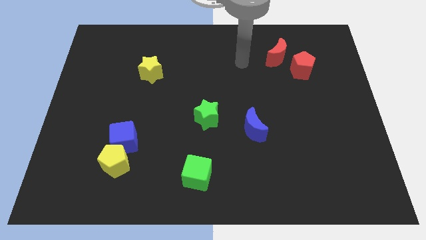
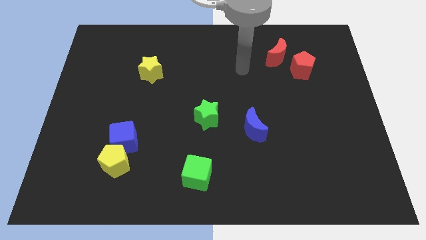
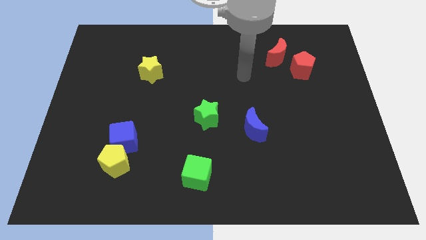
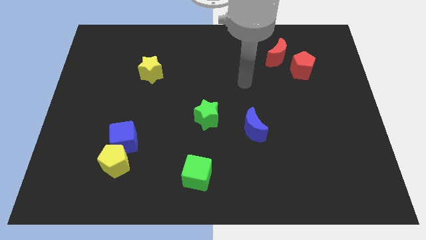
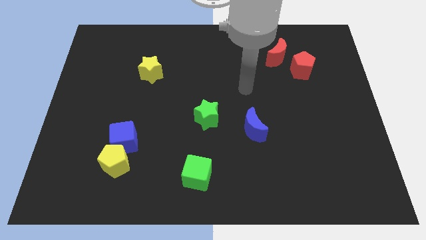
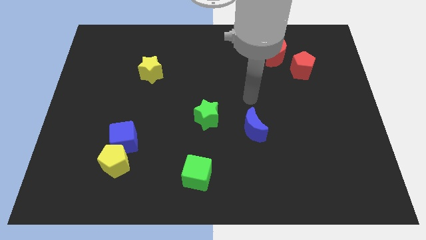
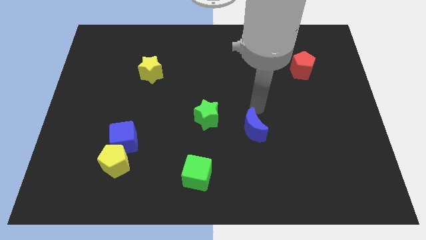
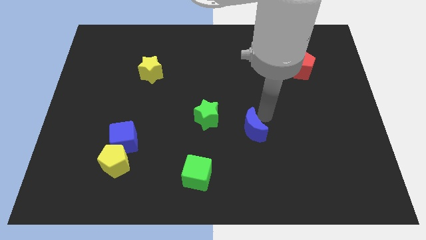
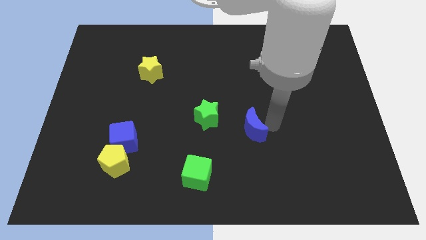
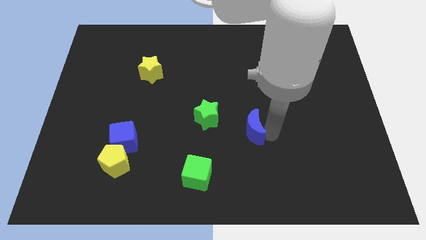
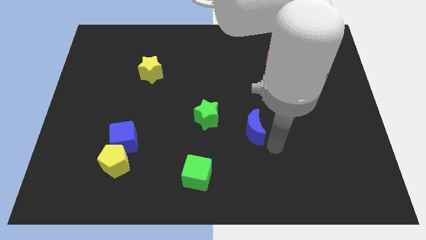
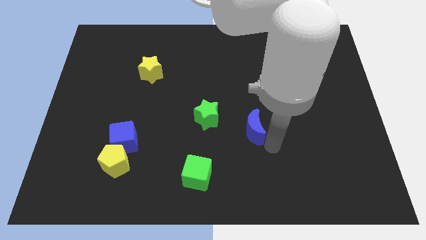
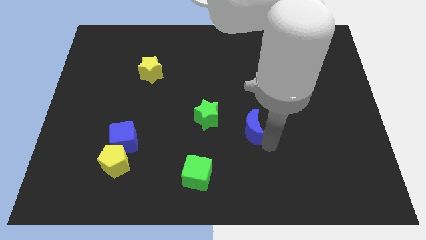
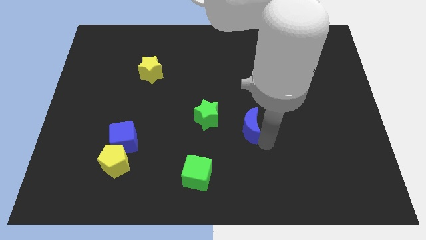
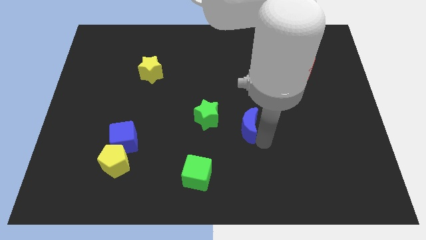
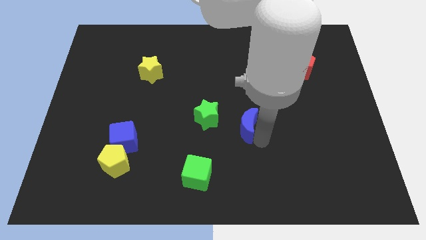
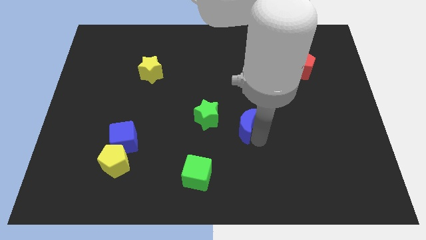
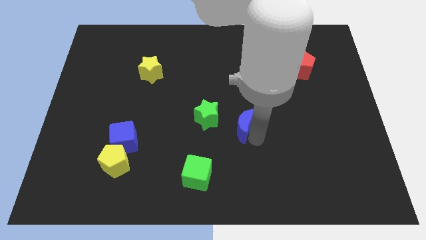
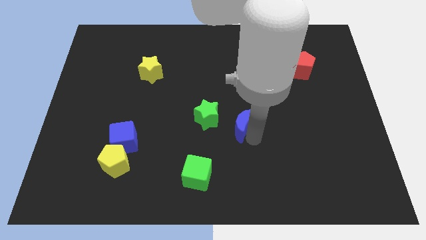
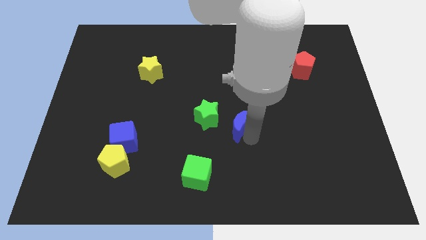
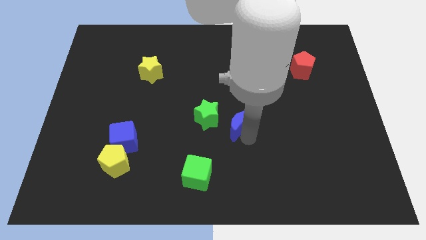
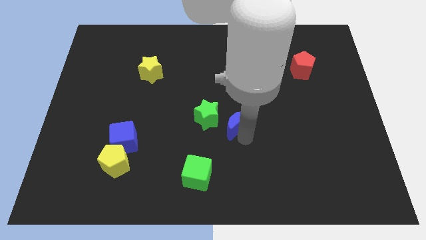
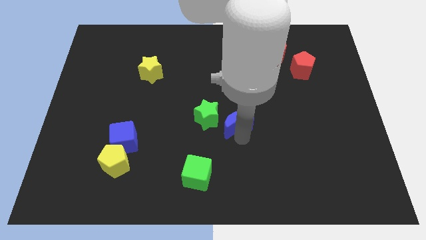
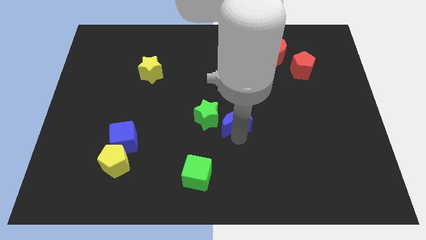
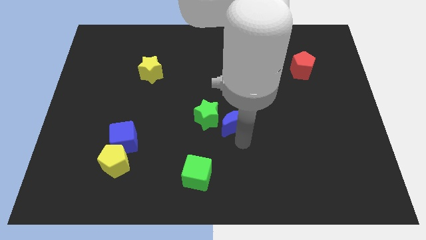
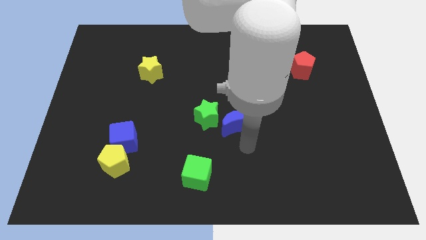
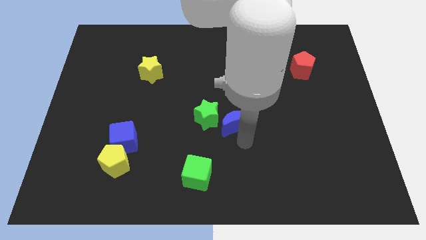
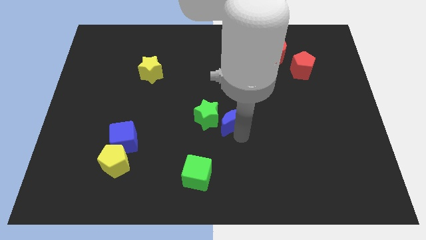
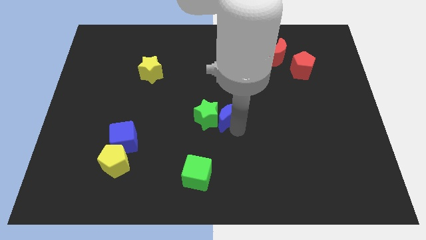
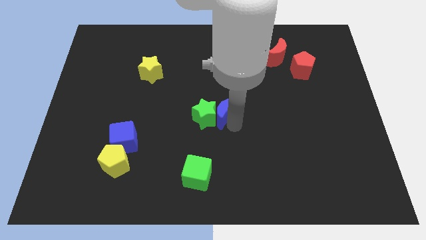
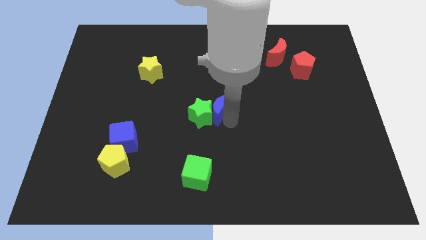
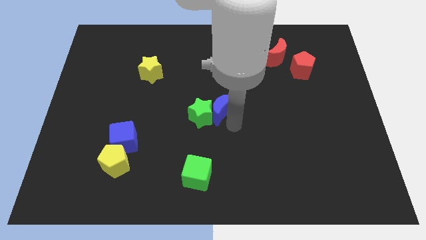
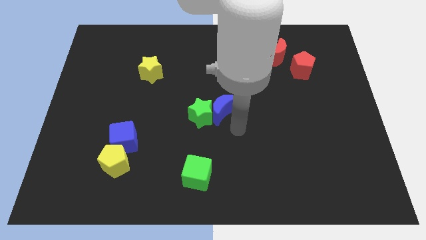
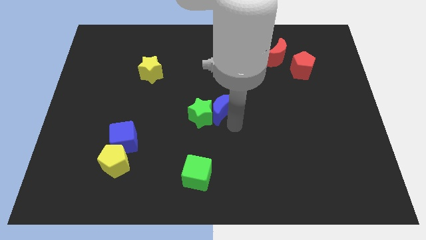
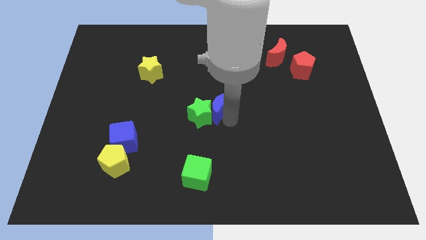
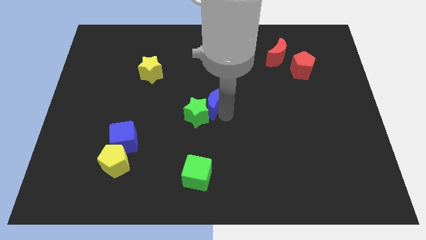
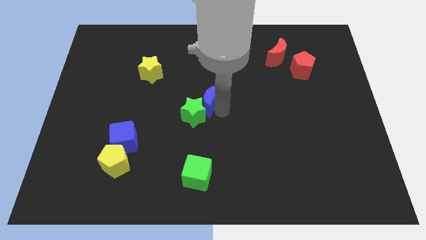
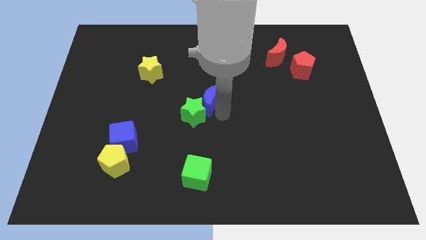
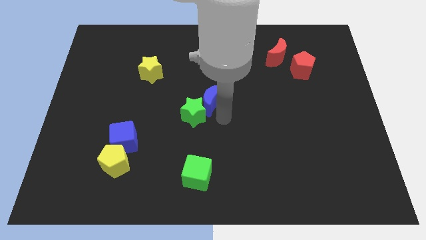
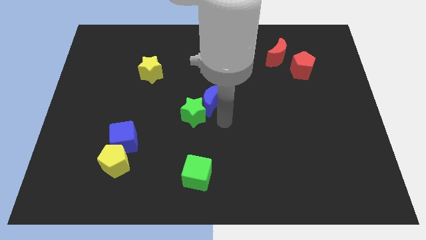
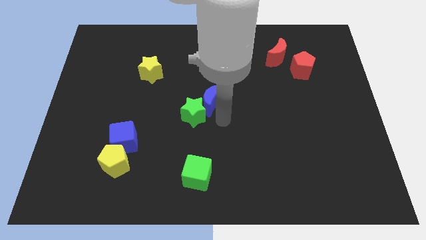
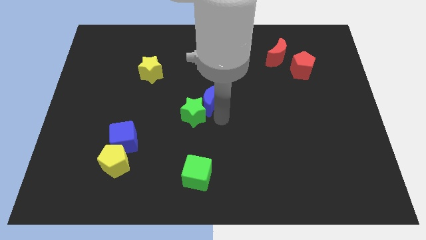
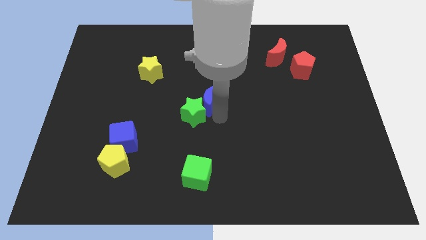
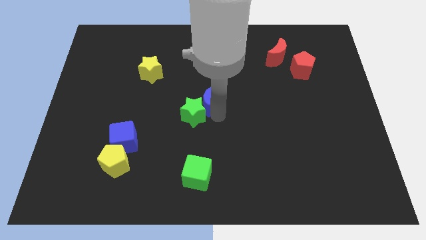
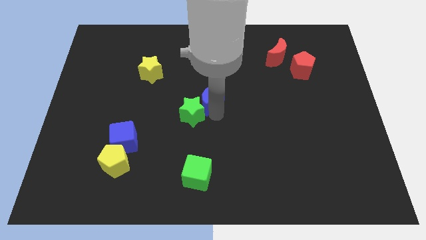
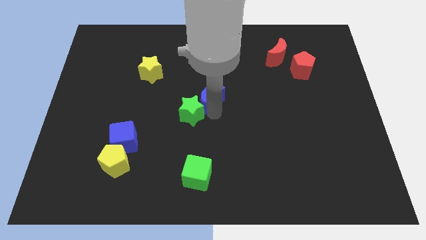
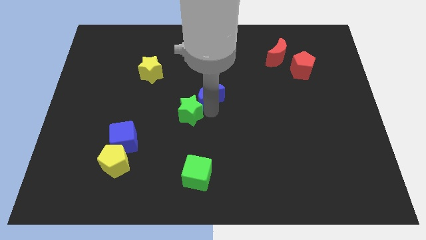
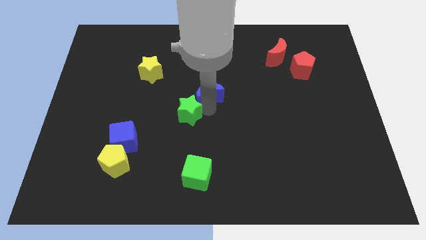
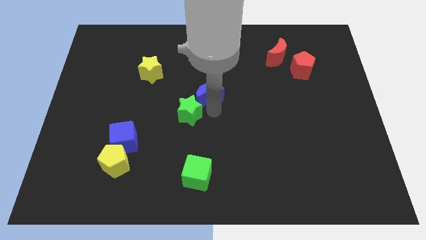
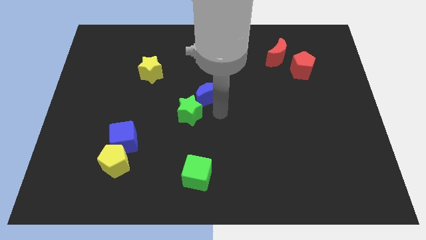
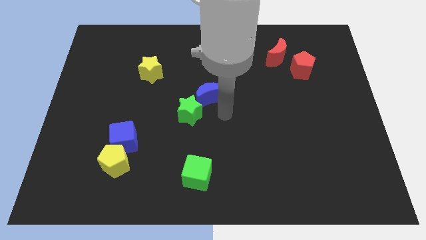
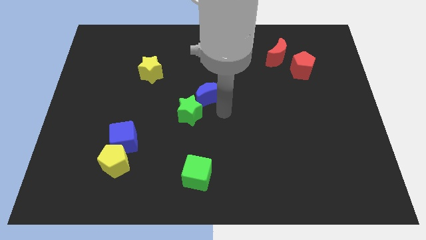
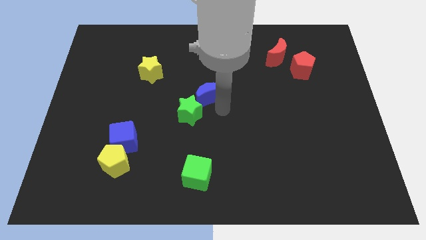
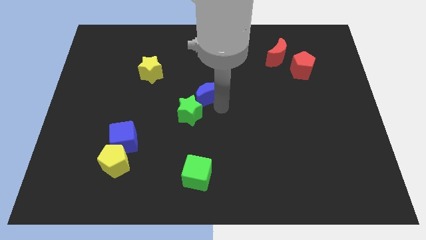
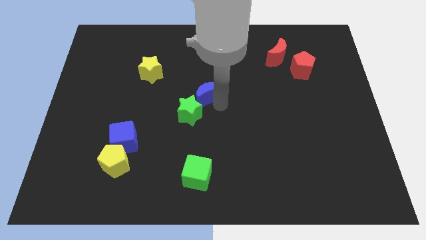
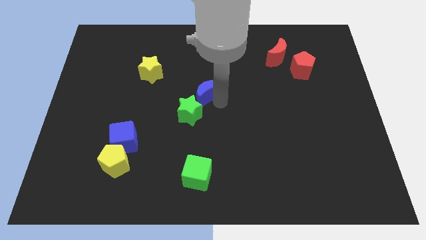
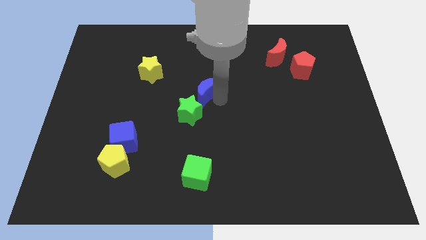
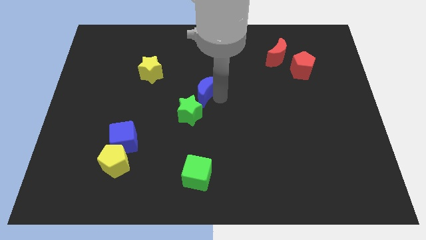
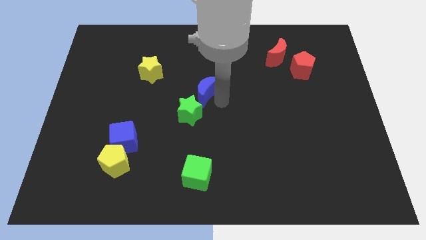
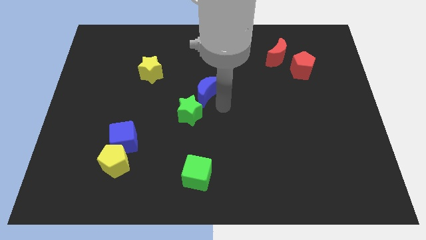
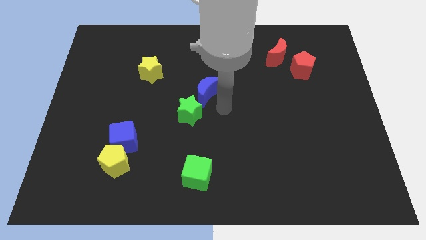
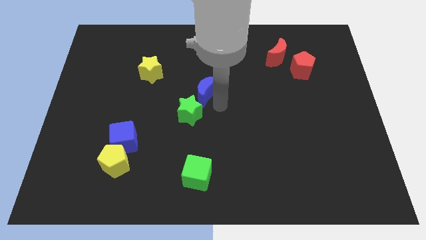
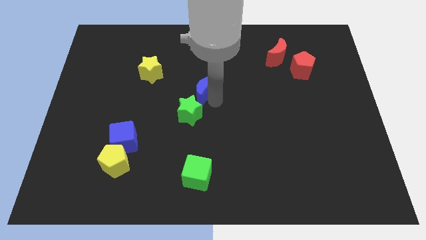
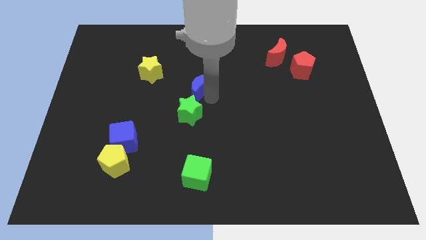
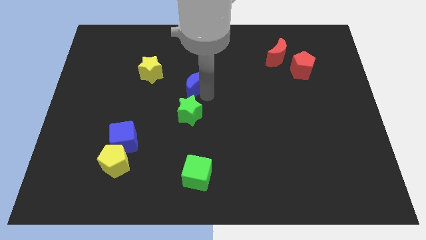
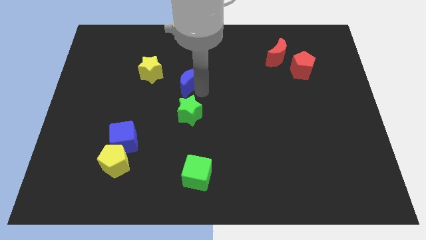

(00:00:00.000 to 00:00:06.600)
push the blue moon upwards and then left

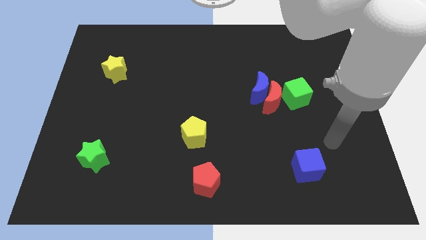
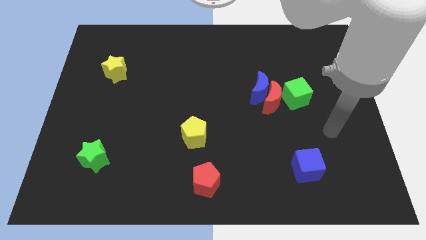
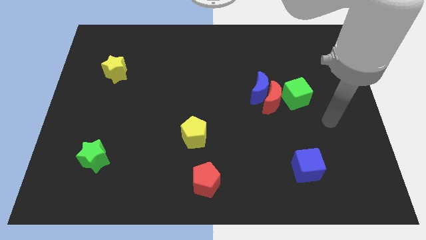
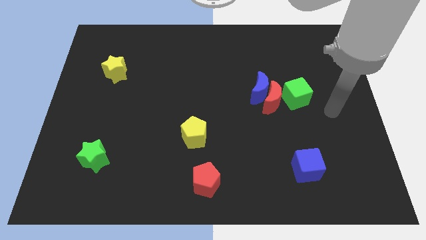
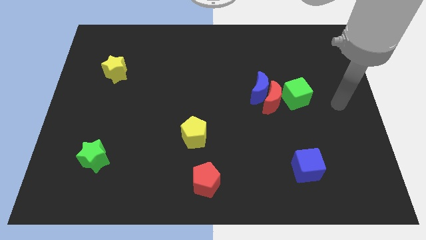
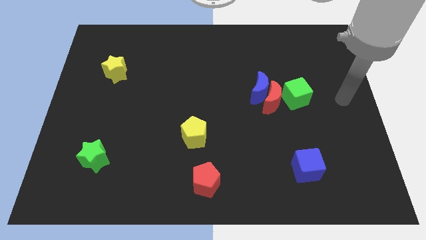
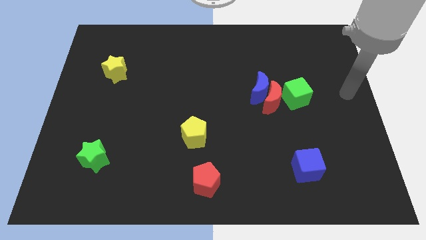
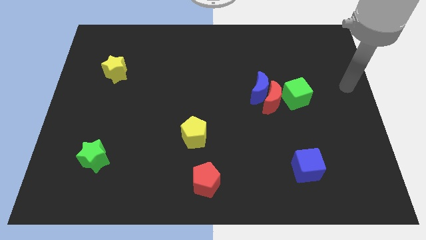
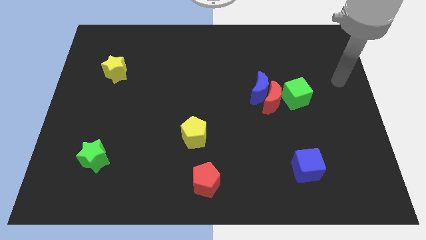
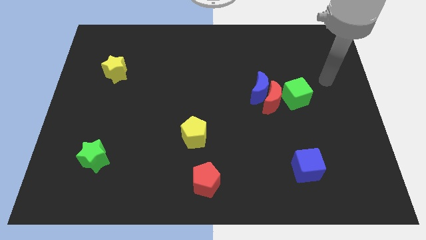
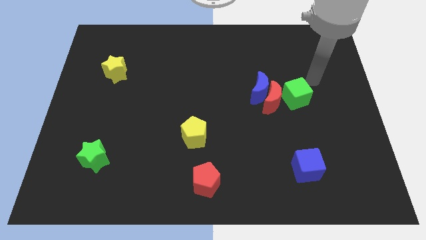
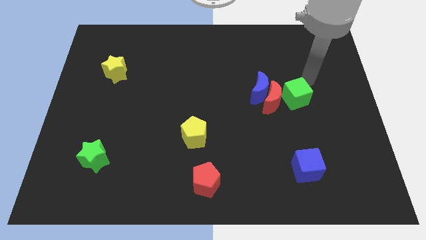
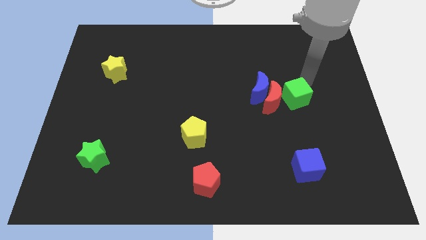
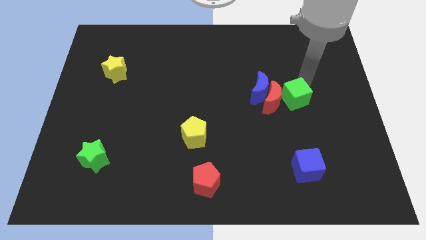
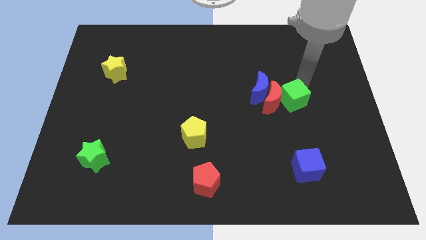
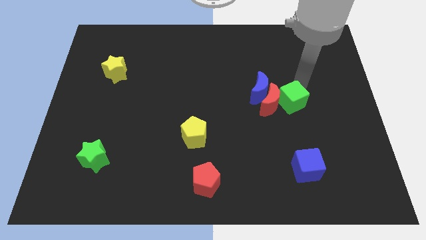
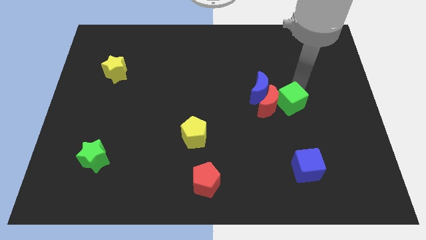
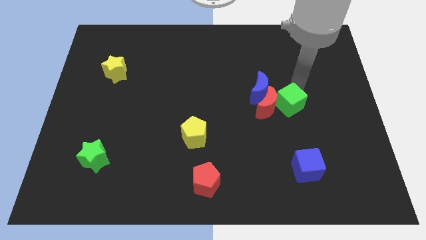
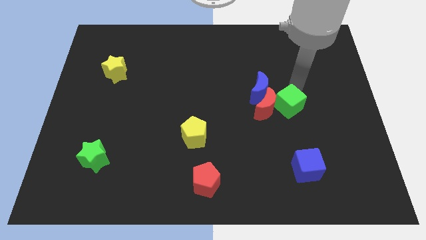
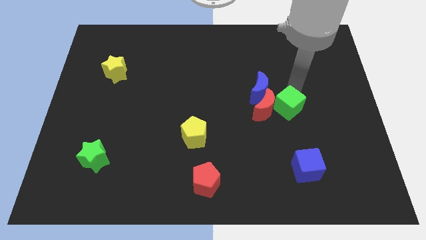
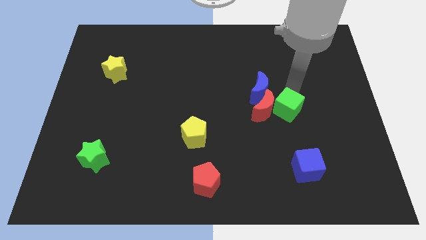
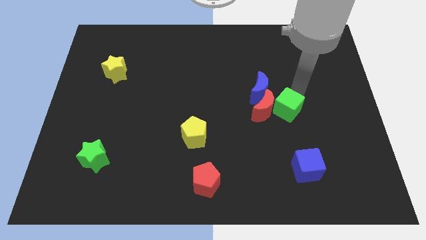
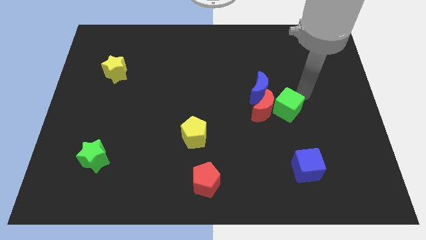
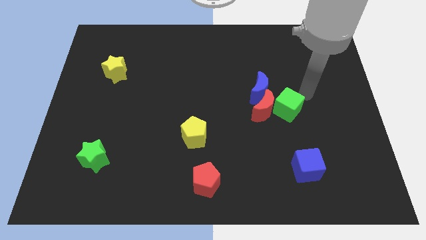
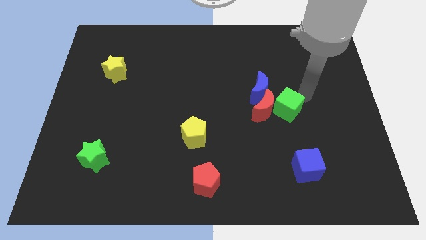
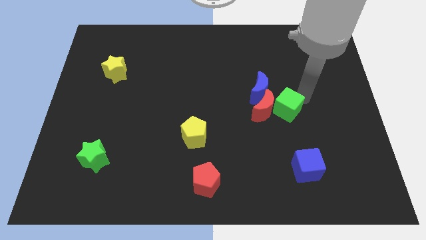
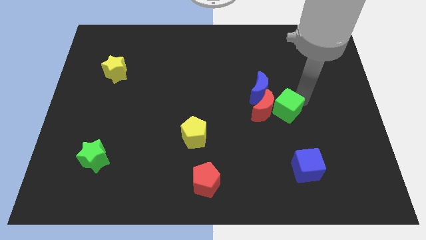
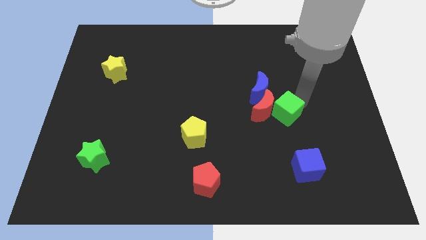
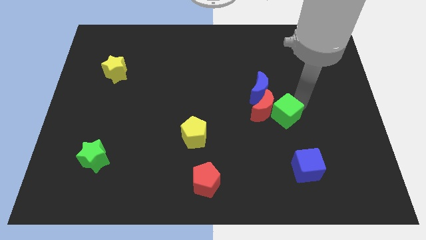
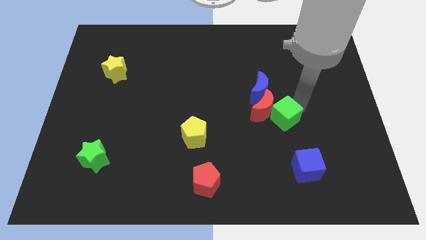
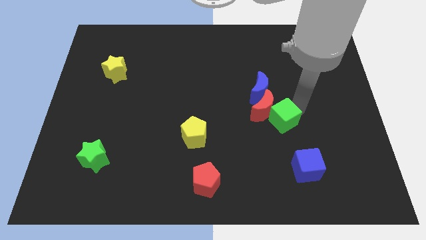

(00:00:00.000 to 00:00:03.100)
slightly push the green cube down and to the left diagonally
